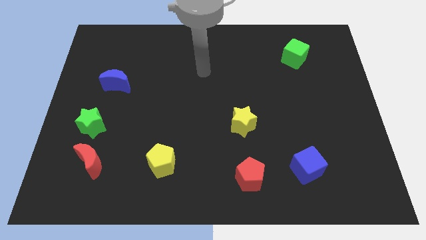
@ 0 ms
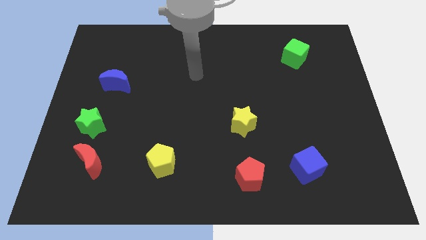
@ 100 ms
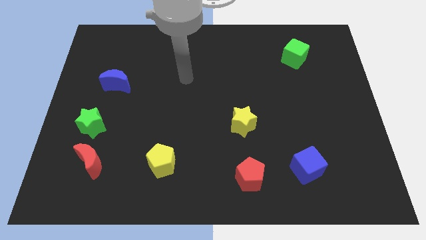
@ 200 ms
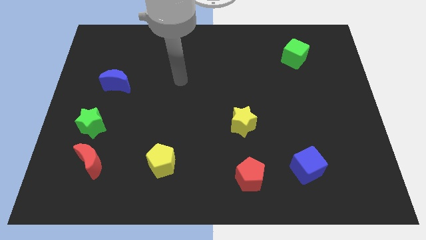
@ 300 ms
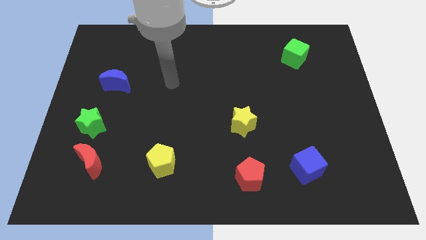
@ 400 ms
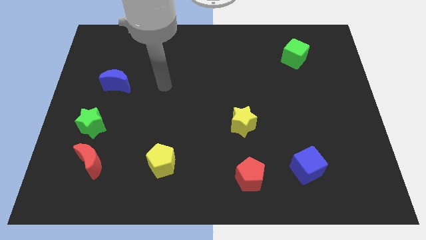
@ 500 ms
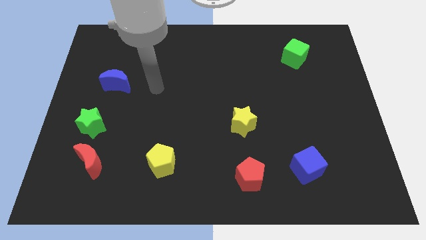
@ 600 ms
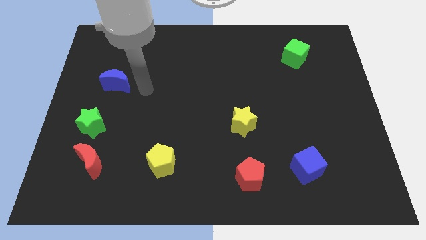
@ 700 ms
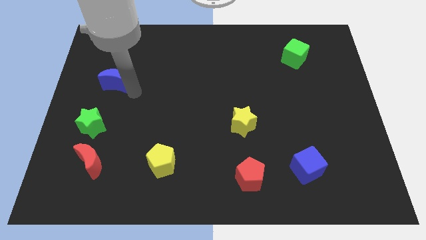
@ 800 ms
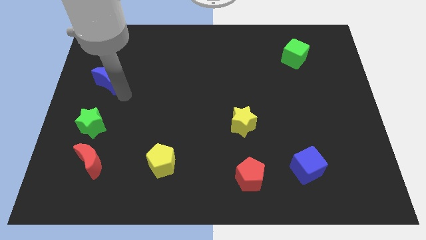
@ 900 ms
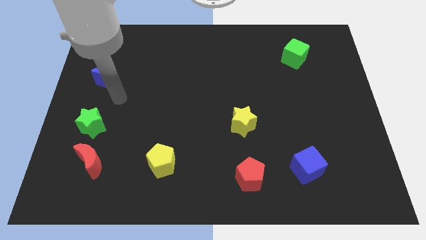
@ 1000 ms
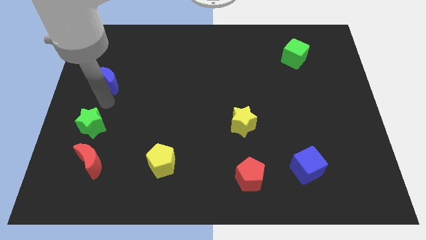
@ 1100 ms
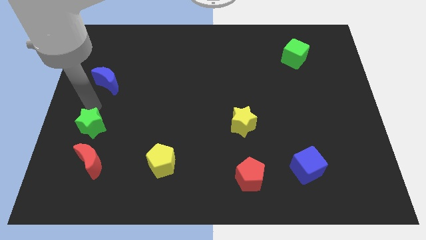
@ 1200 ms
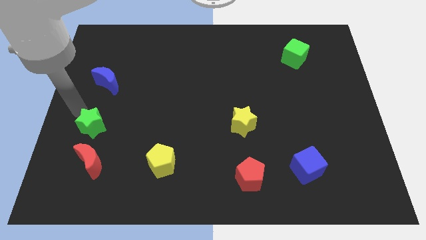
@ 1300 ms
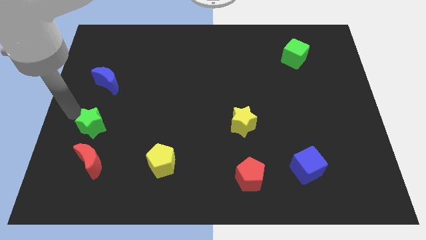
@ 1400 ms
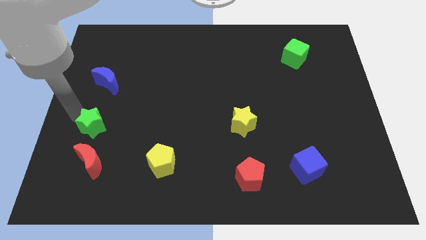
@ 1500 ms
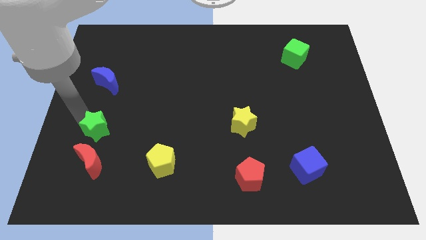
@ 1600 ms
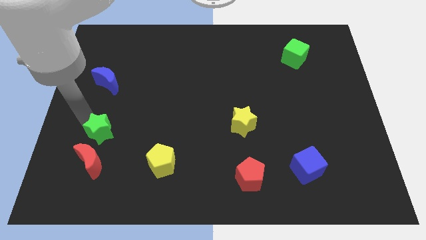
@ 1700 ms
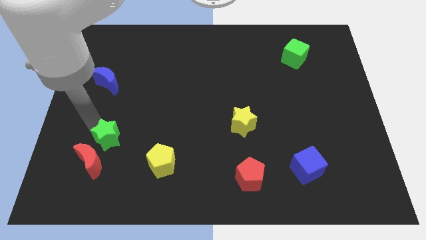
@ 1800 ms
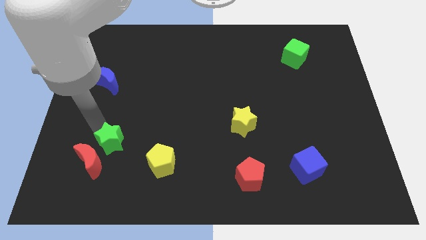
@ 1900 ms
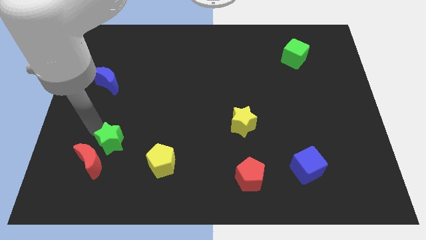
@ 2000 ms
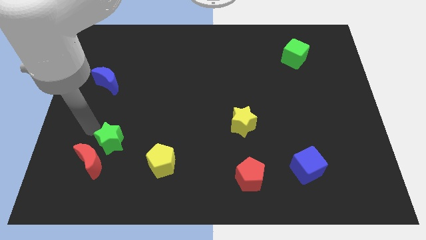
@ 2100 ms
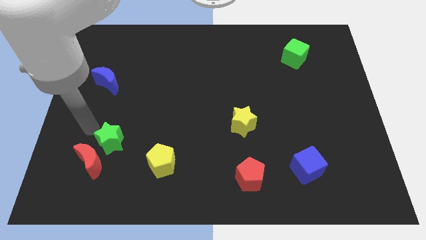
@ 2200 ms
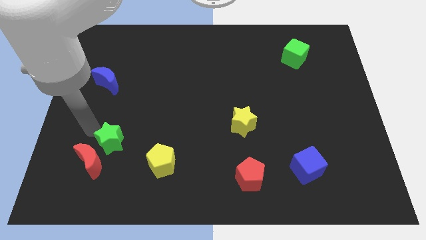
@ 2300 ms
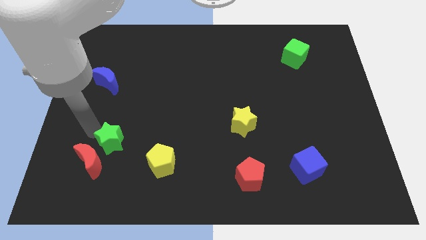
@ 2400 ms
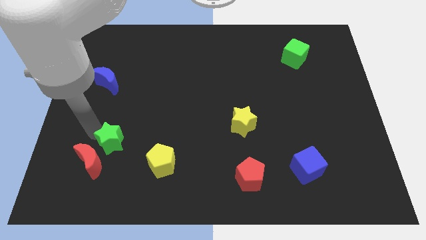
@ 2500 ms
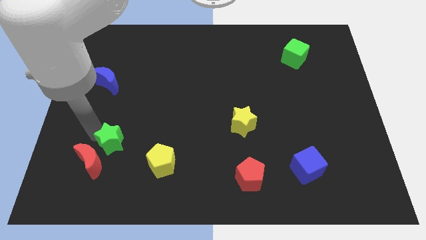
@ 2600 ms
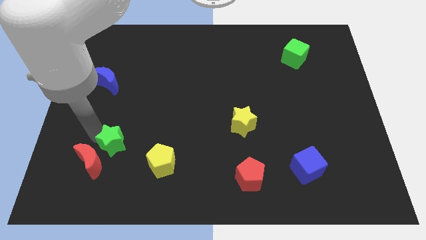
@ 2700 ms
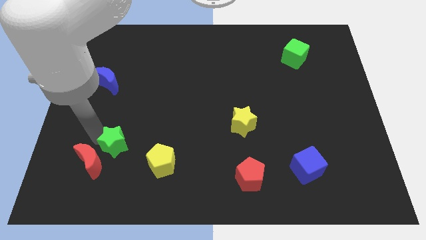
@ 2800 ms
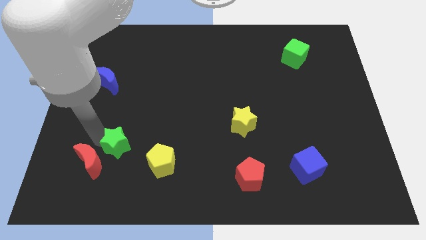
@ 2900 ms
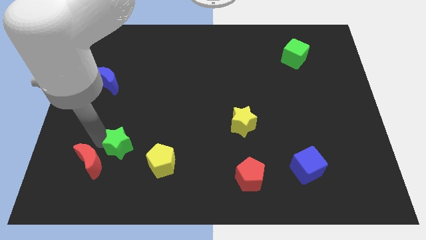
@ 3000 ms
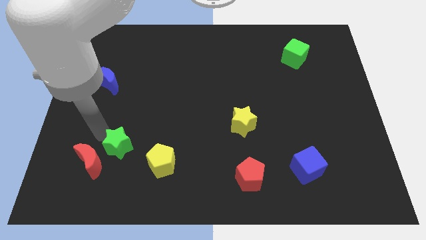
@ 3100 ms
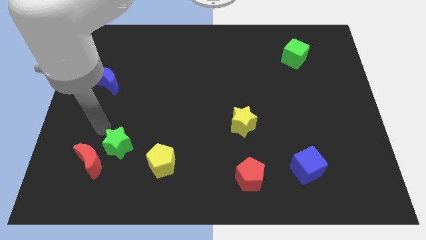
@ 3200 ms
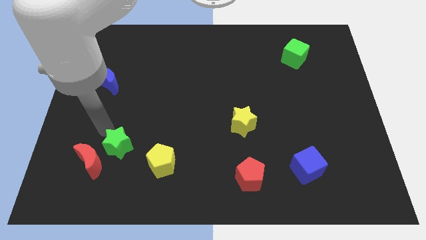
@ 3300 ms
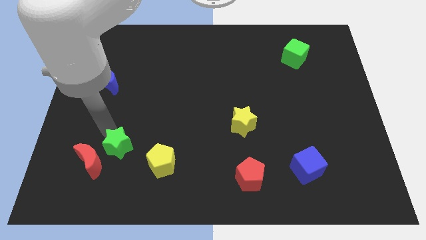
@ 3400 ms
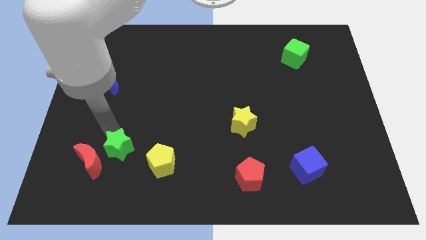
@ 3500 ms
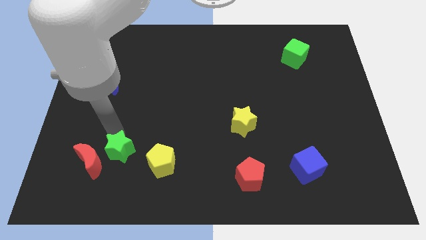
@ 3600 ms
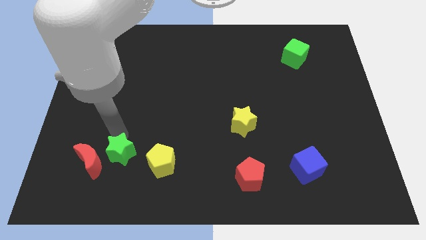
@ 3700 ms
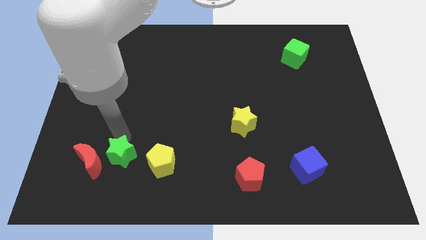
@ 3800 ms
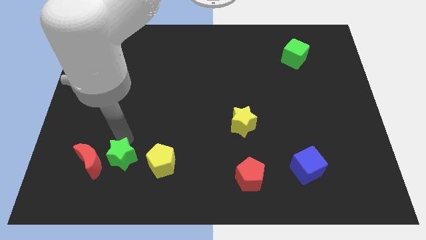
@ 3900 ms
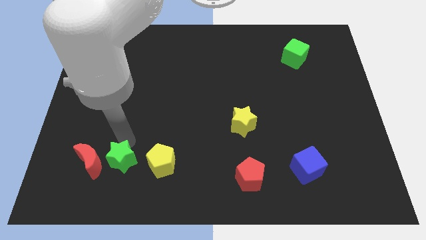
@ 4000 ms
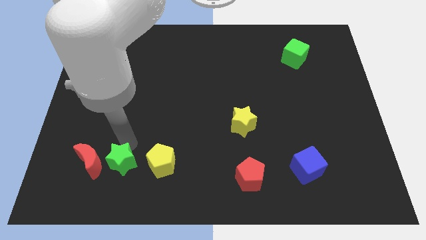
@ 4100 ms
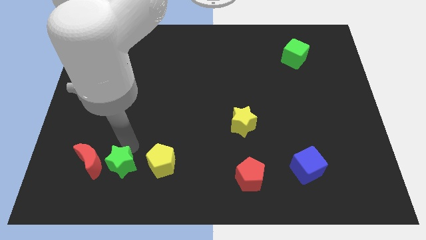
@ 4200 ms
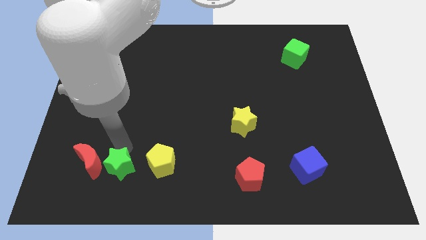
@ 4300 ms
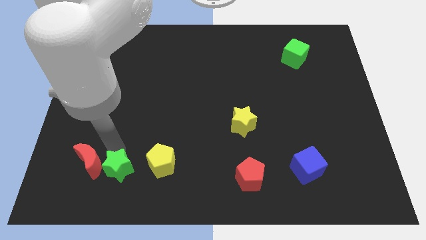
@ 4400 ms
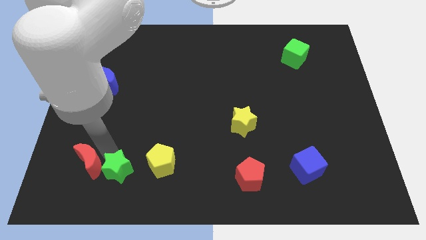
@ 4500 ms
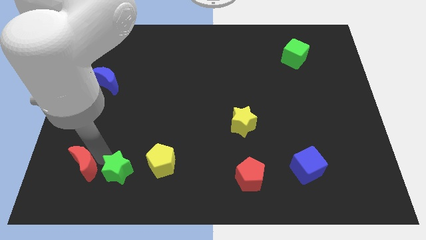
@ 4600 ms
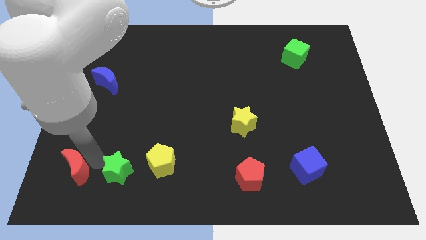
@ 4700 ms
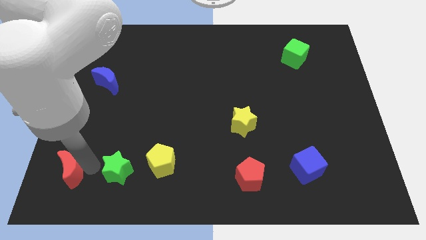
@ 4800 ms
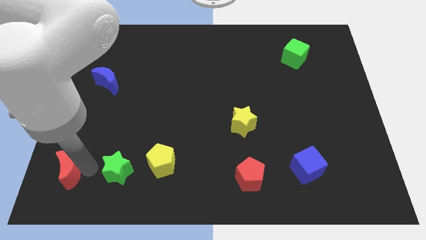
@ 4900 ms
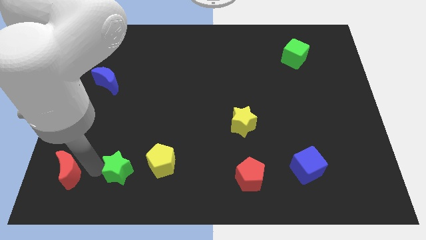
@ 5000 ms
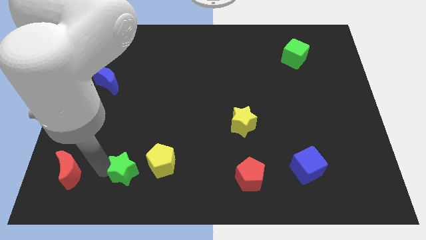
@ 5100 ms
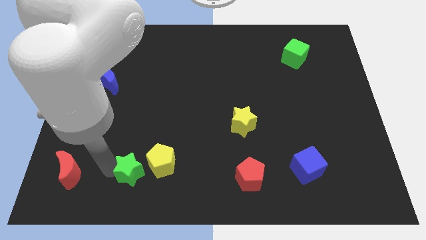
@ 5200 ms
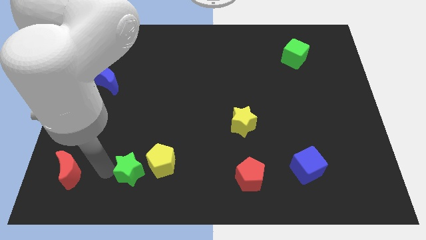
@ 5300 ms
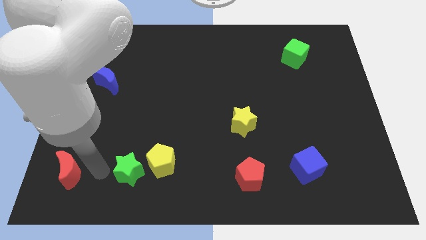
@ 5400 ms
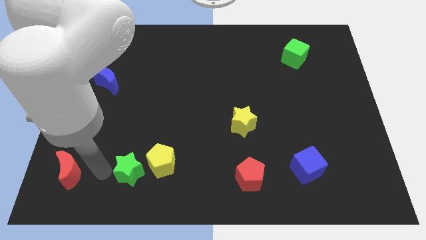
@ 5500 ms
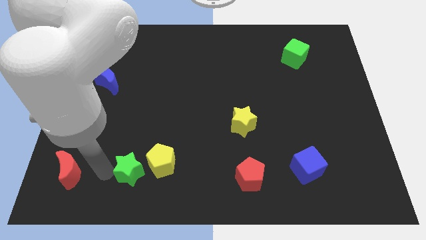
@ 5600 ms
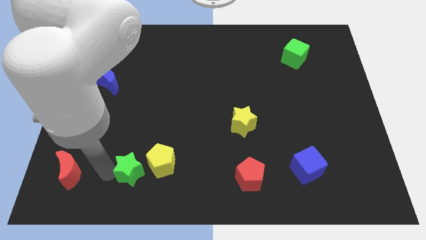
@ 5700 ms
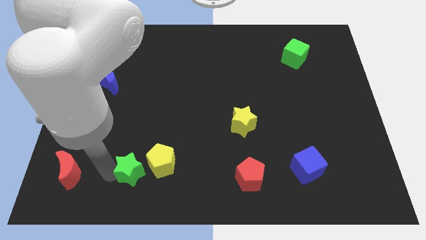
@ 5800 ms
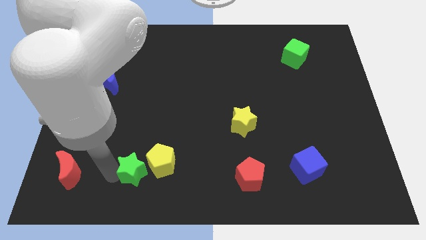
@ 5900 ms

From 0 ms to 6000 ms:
push the green star towards the yellow pentagon

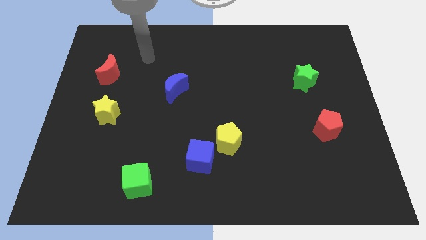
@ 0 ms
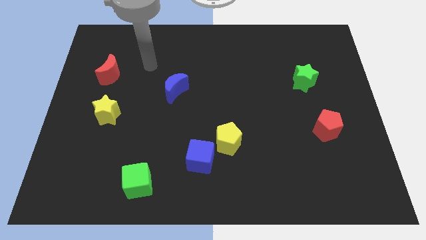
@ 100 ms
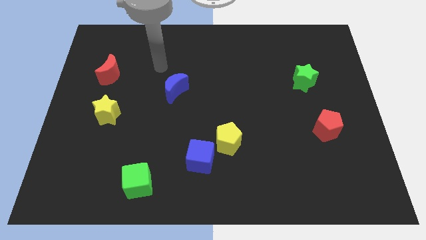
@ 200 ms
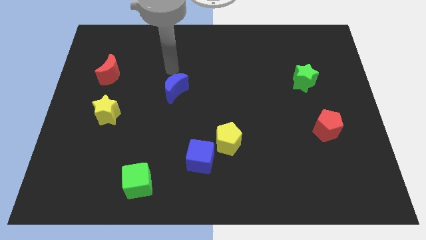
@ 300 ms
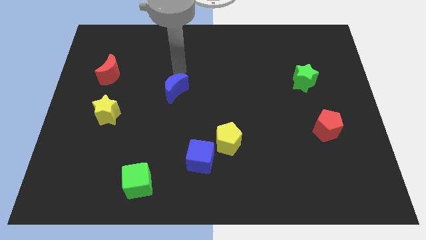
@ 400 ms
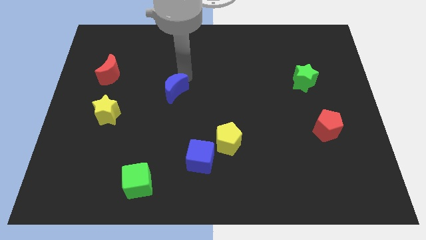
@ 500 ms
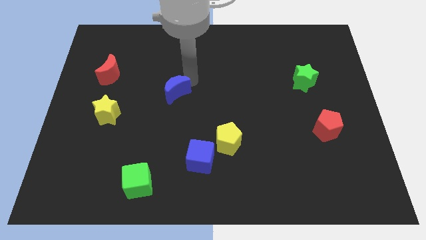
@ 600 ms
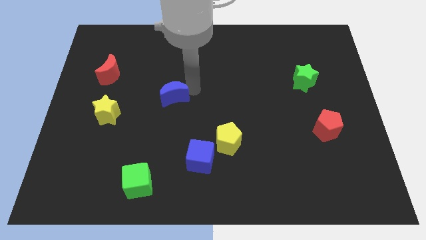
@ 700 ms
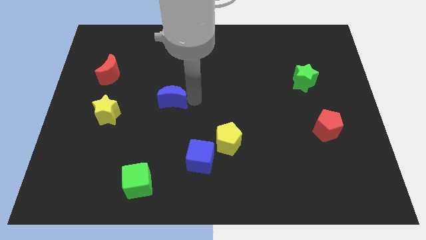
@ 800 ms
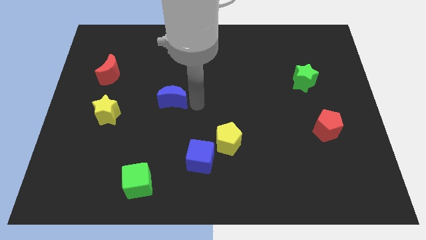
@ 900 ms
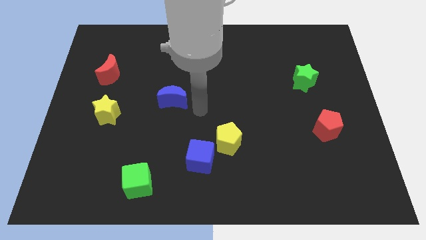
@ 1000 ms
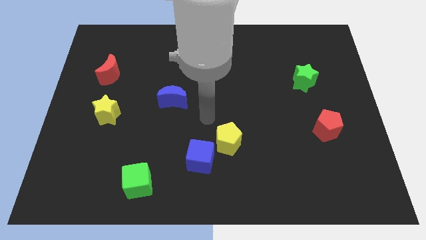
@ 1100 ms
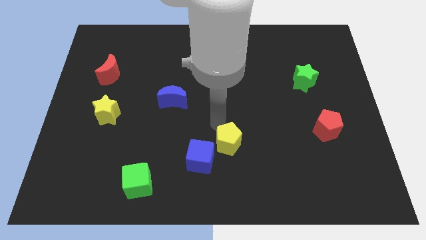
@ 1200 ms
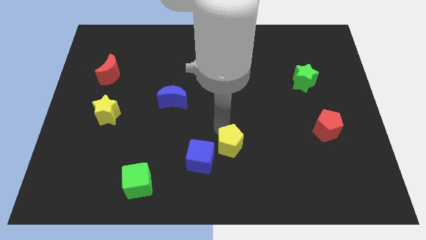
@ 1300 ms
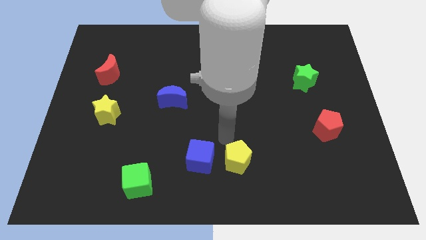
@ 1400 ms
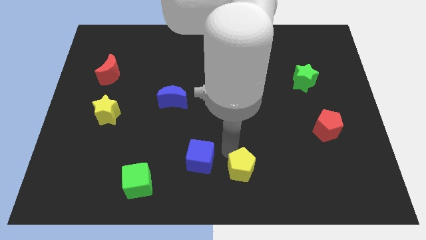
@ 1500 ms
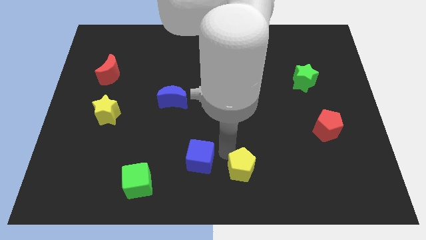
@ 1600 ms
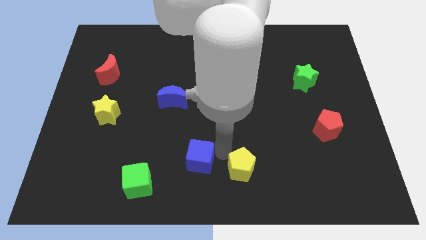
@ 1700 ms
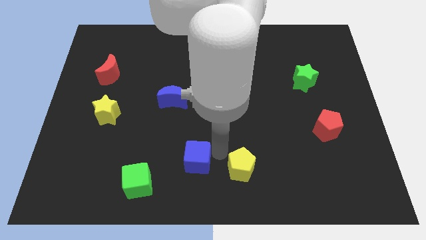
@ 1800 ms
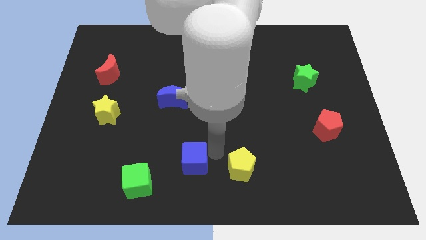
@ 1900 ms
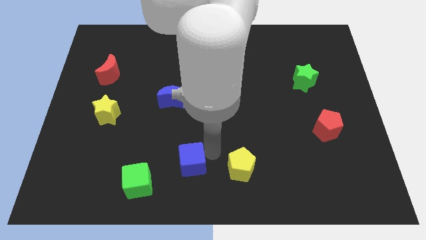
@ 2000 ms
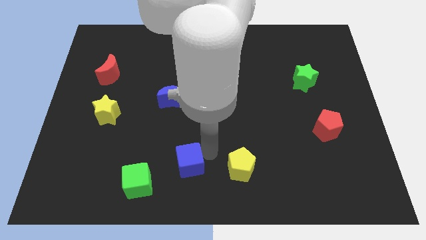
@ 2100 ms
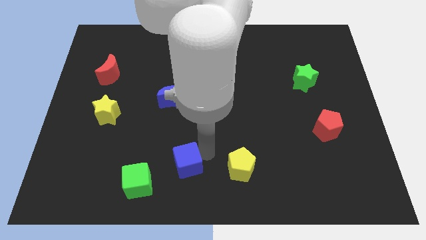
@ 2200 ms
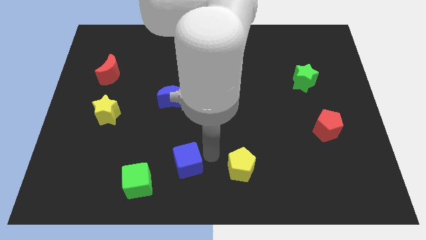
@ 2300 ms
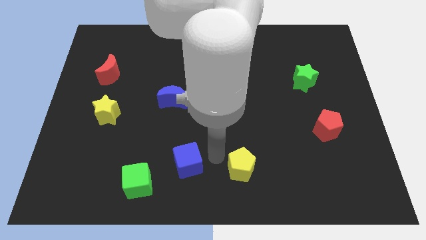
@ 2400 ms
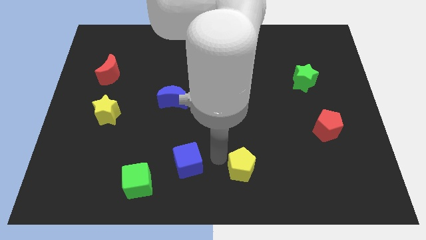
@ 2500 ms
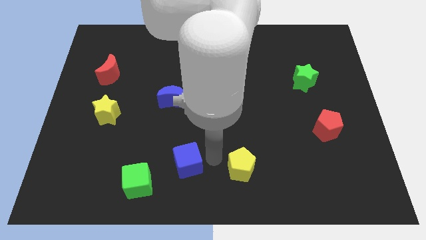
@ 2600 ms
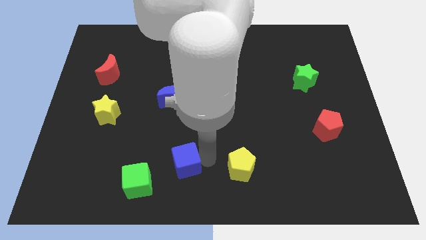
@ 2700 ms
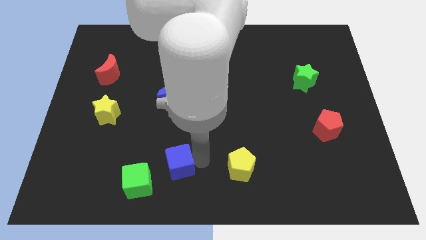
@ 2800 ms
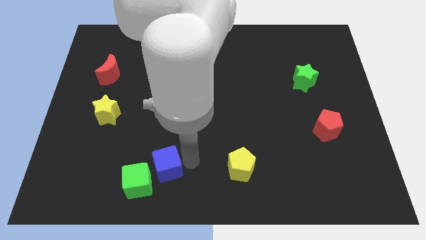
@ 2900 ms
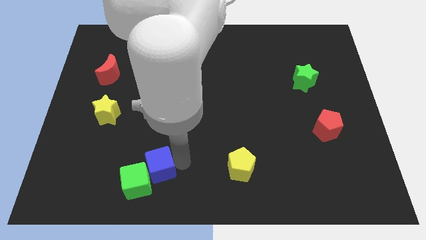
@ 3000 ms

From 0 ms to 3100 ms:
push the blue cube next to the green cube
